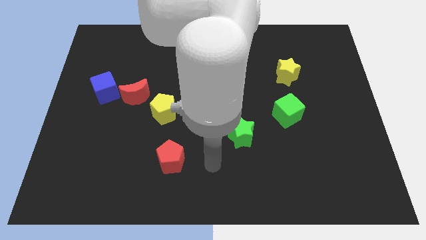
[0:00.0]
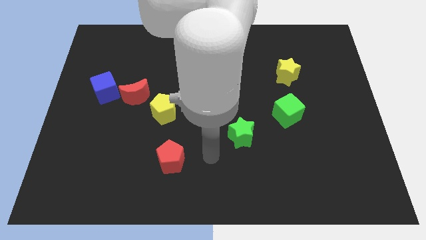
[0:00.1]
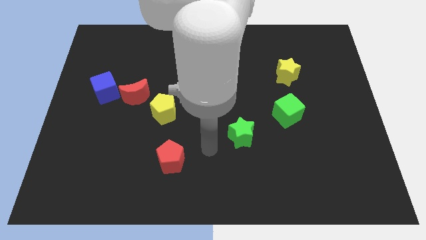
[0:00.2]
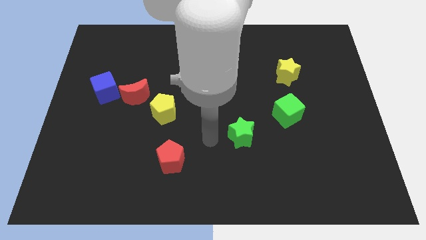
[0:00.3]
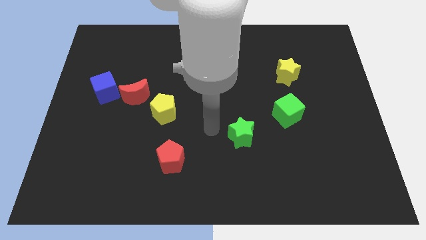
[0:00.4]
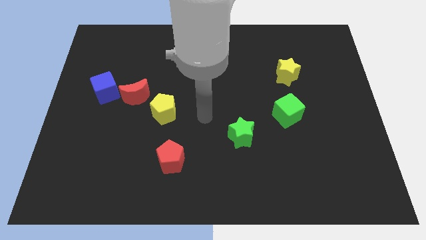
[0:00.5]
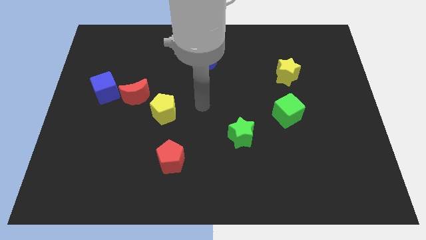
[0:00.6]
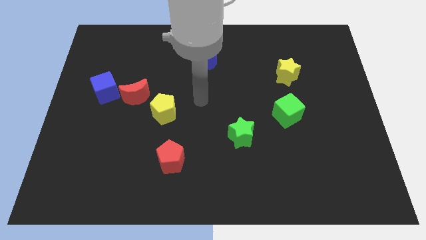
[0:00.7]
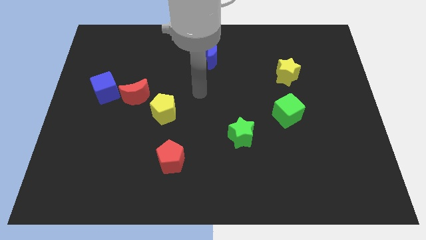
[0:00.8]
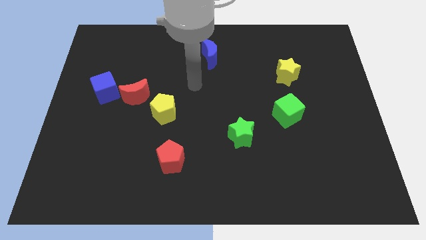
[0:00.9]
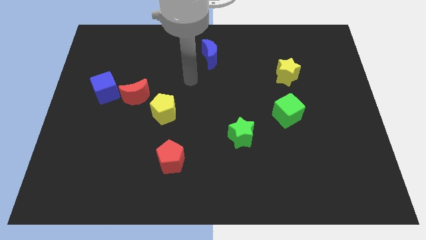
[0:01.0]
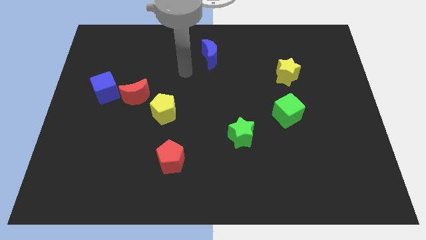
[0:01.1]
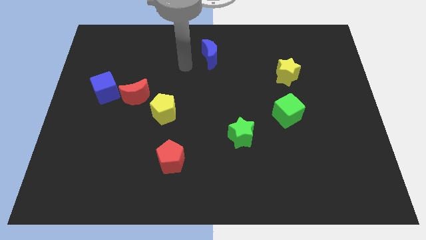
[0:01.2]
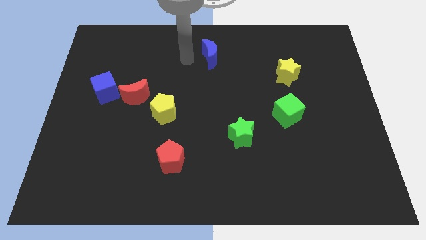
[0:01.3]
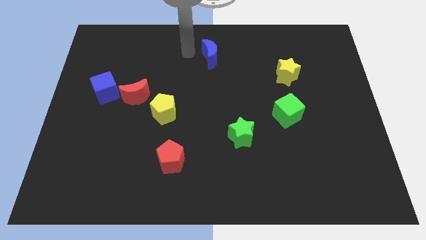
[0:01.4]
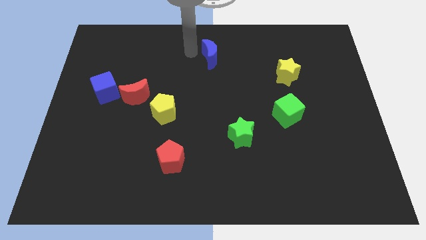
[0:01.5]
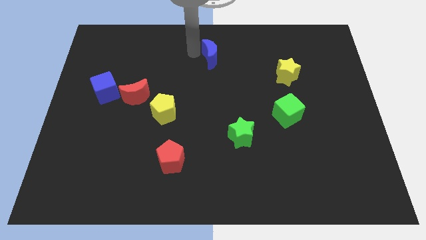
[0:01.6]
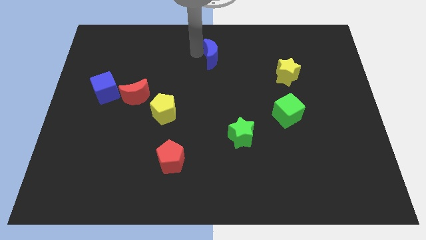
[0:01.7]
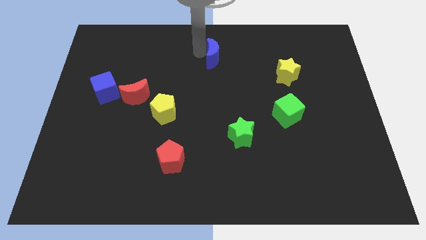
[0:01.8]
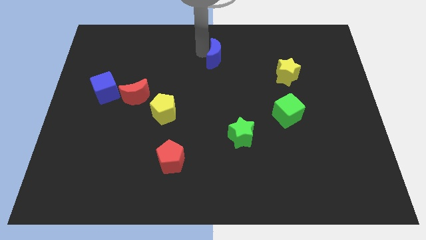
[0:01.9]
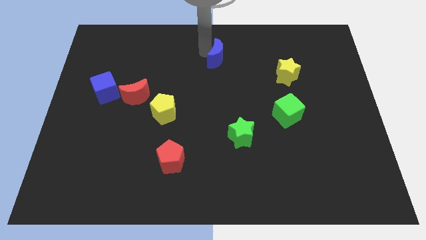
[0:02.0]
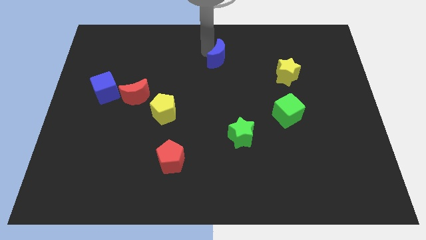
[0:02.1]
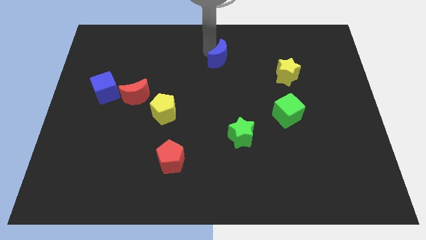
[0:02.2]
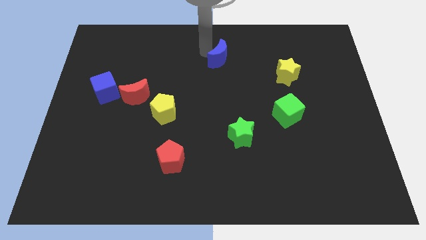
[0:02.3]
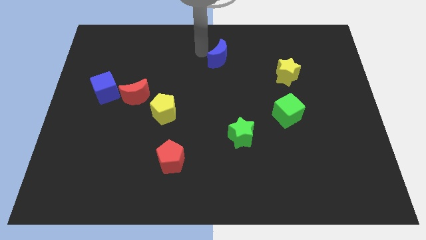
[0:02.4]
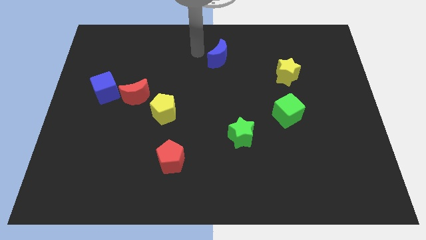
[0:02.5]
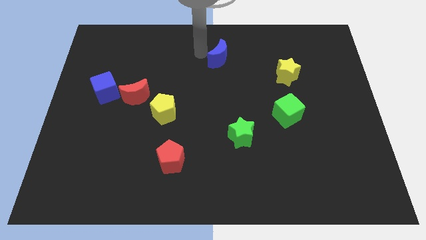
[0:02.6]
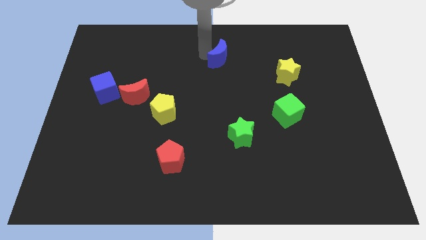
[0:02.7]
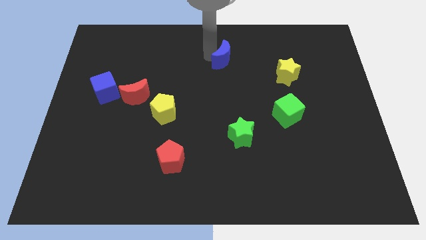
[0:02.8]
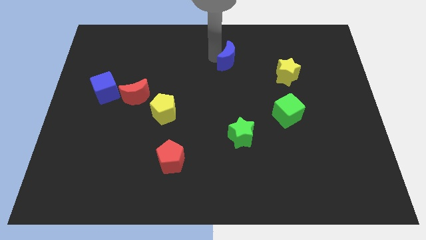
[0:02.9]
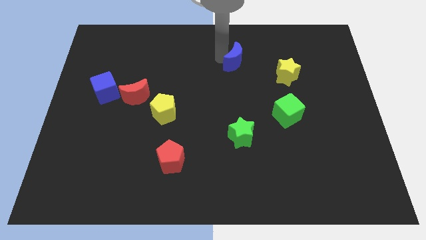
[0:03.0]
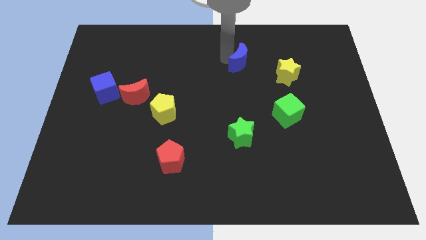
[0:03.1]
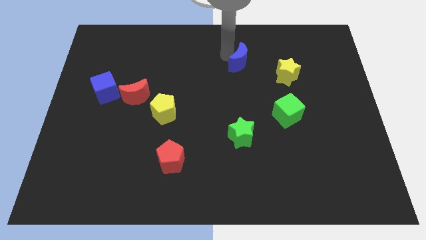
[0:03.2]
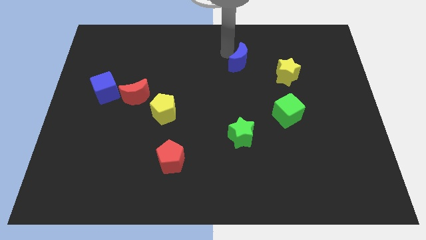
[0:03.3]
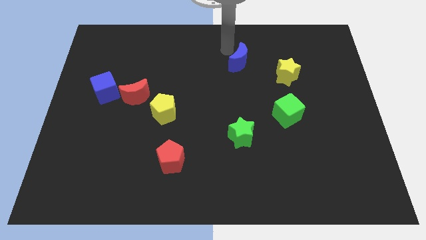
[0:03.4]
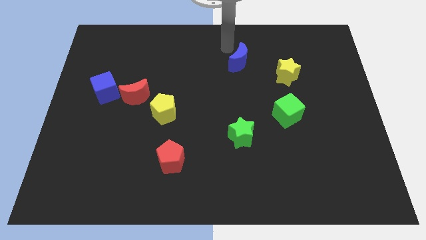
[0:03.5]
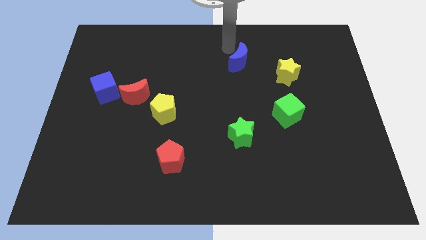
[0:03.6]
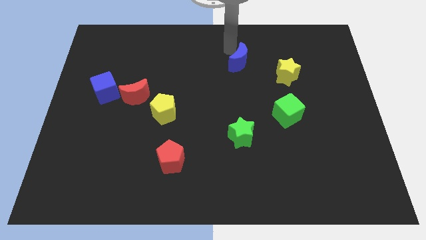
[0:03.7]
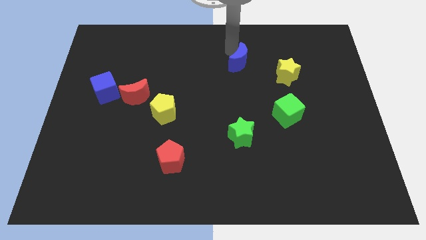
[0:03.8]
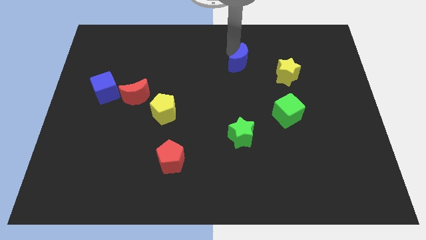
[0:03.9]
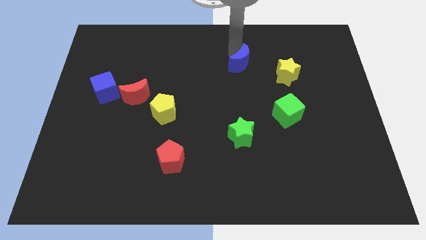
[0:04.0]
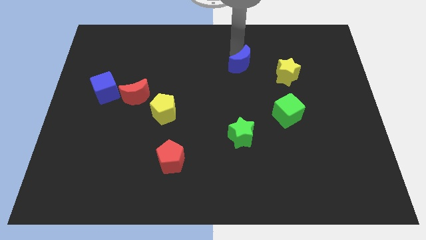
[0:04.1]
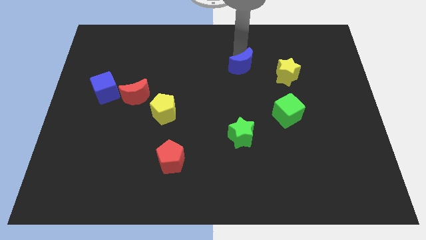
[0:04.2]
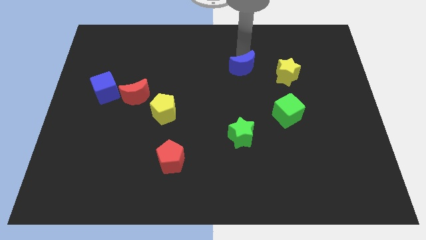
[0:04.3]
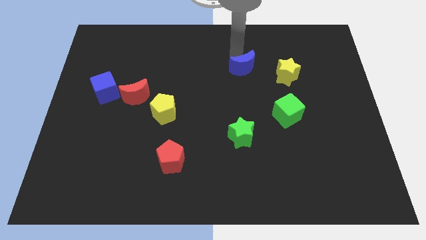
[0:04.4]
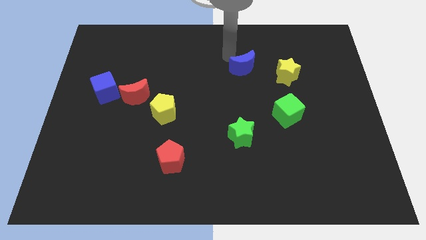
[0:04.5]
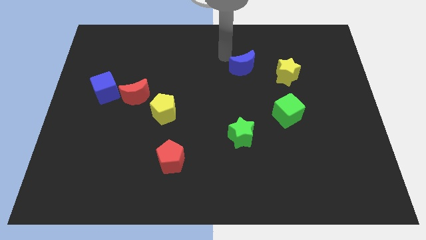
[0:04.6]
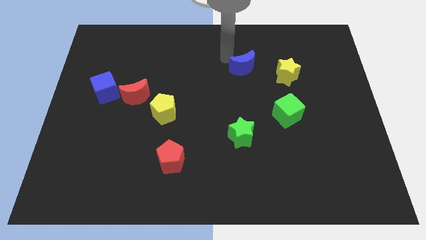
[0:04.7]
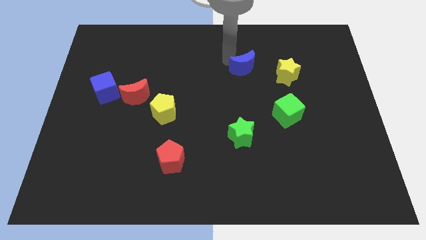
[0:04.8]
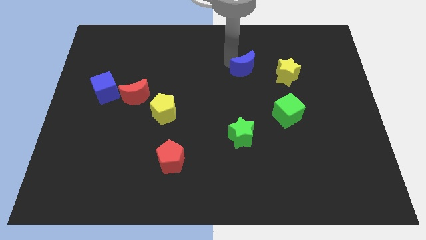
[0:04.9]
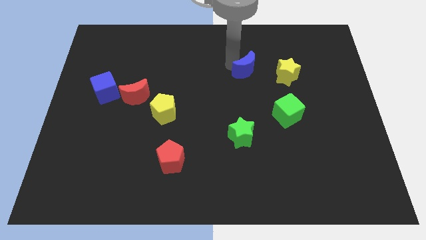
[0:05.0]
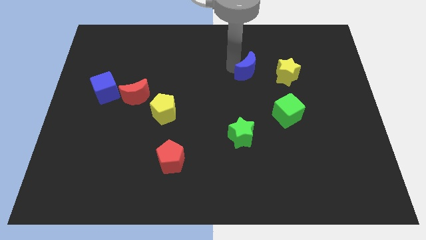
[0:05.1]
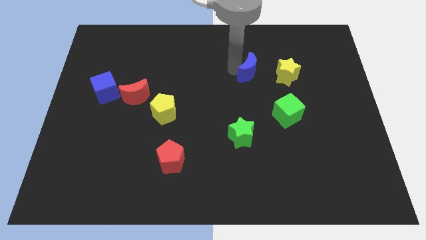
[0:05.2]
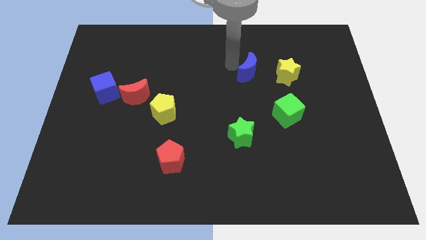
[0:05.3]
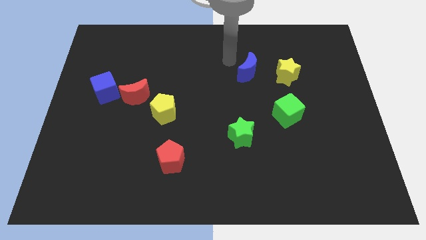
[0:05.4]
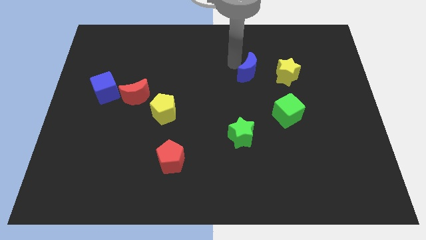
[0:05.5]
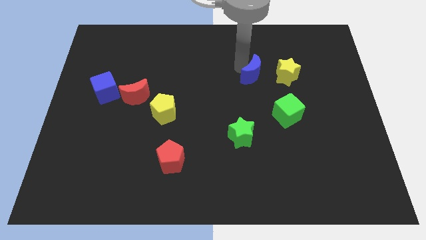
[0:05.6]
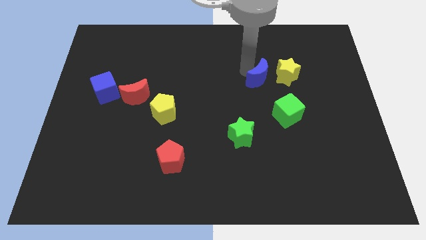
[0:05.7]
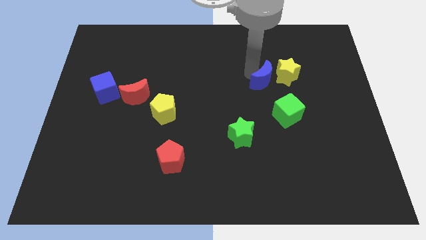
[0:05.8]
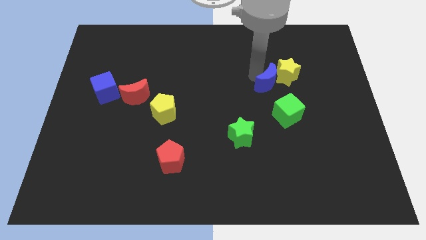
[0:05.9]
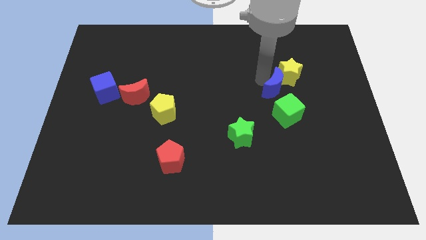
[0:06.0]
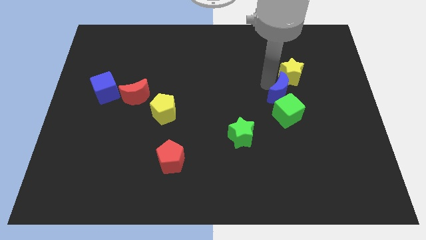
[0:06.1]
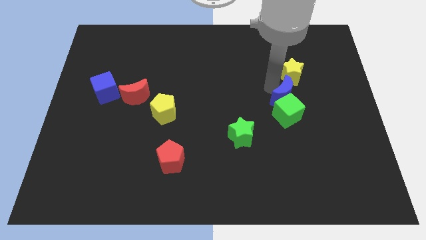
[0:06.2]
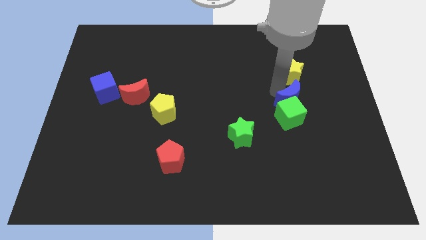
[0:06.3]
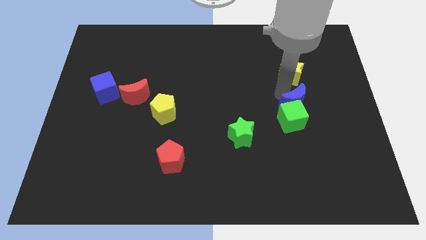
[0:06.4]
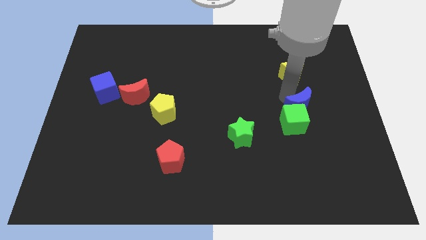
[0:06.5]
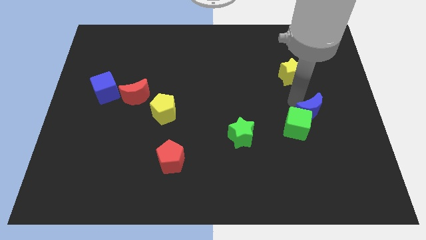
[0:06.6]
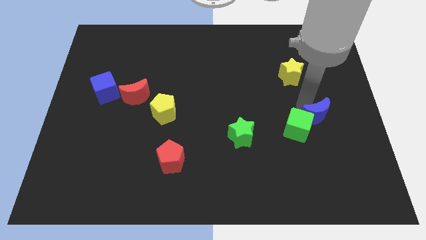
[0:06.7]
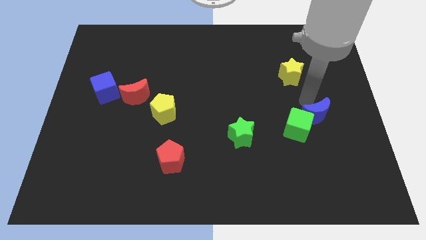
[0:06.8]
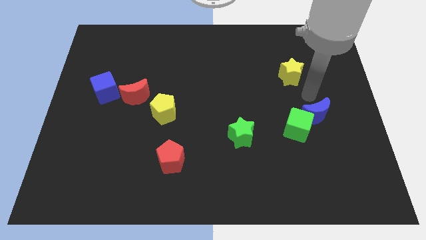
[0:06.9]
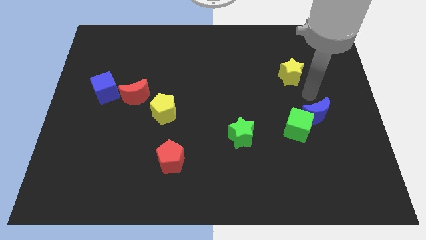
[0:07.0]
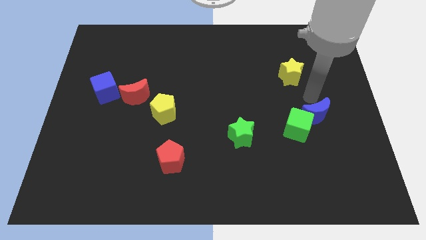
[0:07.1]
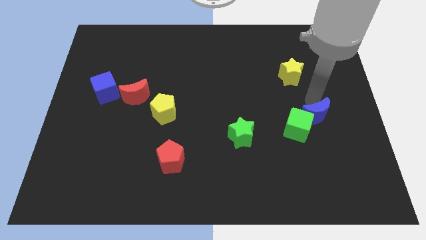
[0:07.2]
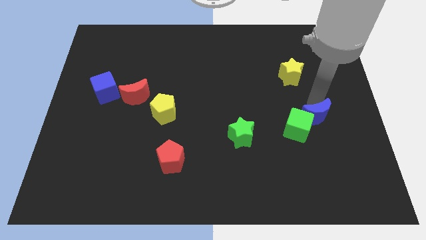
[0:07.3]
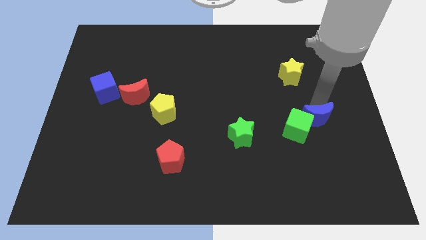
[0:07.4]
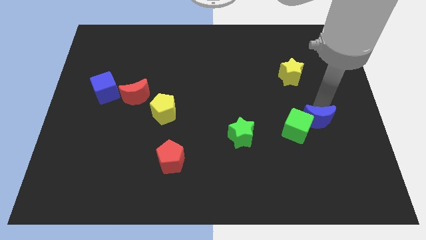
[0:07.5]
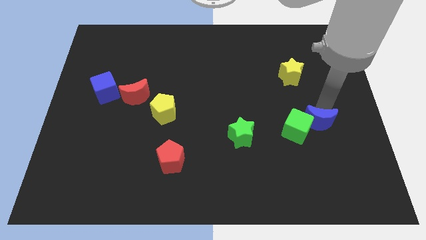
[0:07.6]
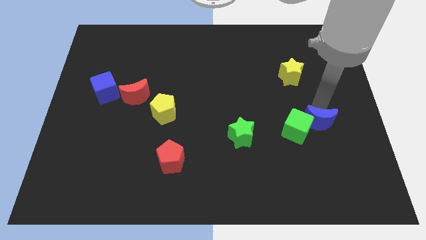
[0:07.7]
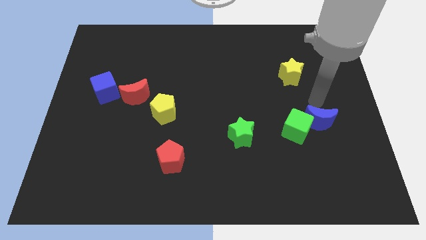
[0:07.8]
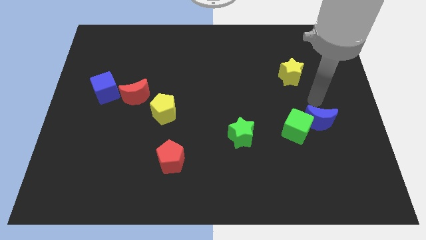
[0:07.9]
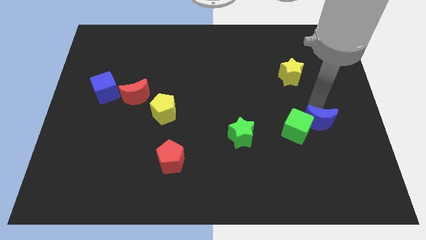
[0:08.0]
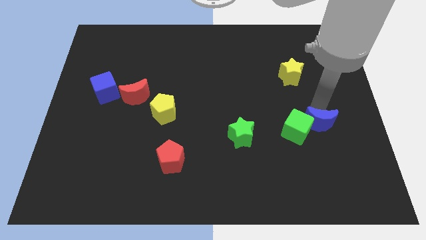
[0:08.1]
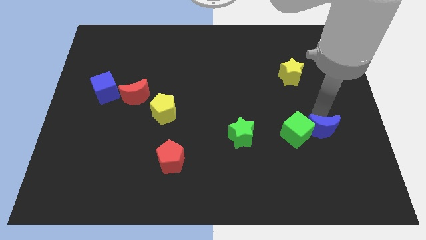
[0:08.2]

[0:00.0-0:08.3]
move the blue moon to the bottom right side of the green cube

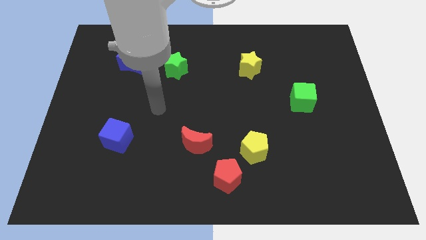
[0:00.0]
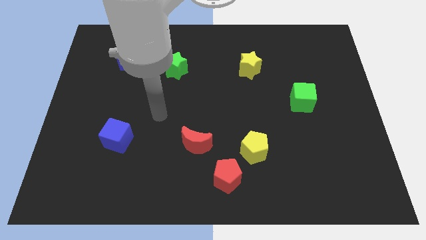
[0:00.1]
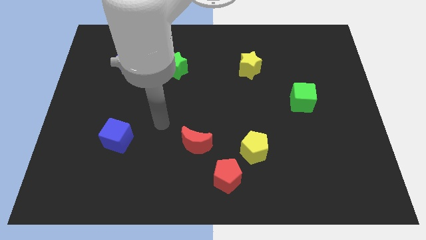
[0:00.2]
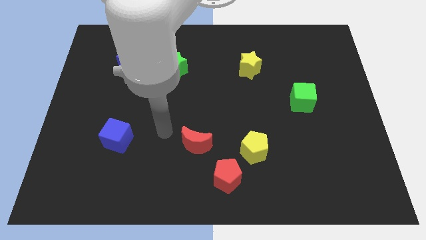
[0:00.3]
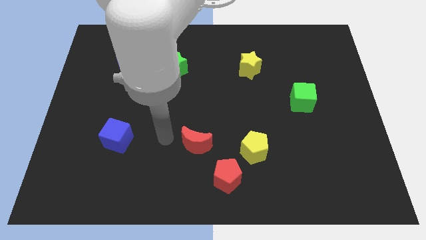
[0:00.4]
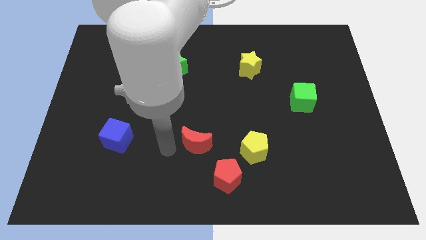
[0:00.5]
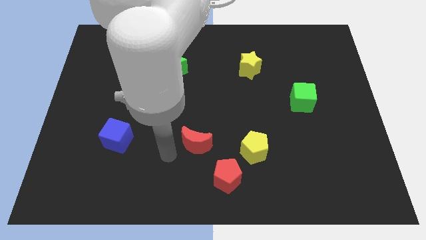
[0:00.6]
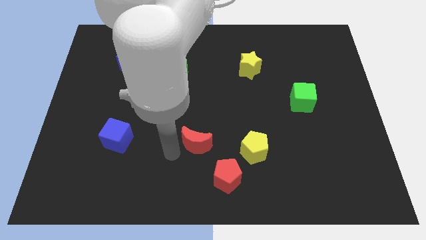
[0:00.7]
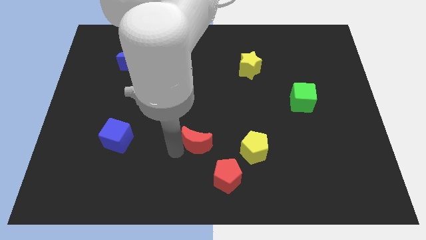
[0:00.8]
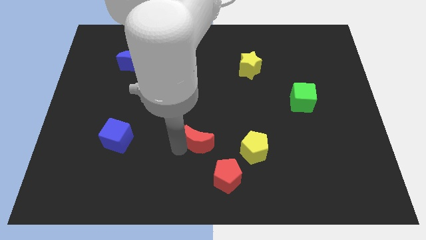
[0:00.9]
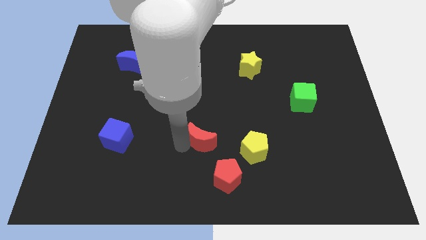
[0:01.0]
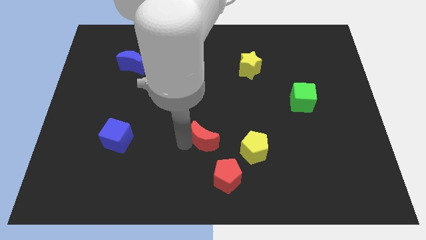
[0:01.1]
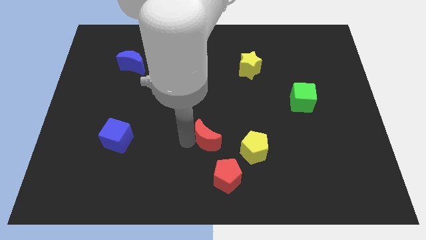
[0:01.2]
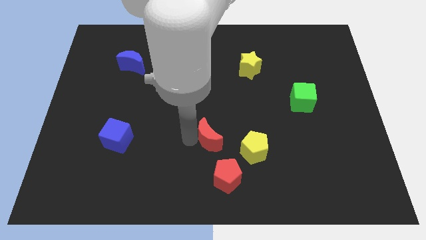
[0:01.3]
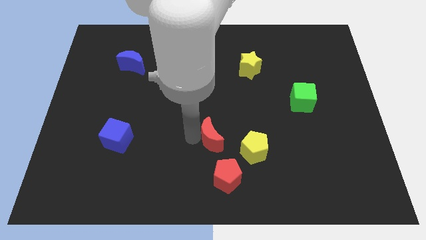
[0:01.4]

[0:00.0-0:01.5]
move the red moon to the top left side of the yellow pentagon
